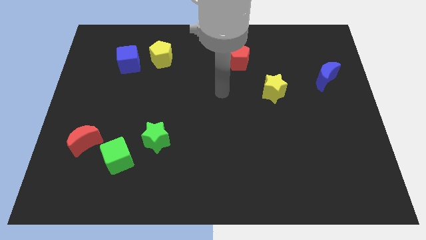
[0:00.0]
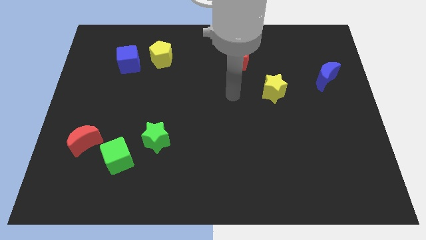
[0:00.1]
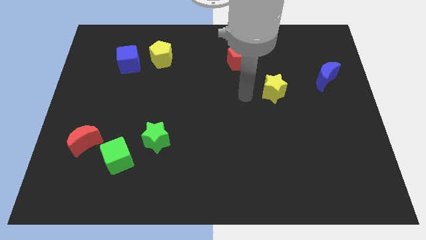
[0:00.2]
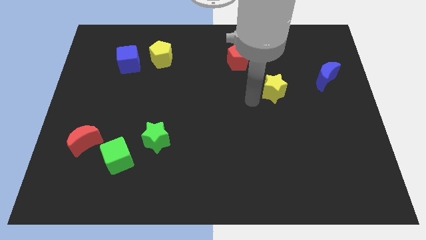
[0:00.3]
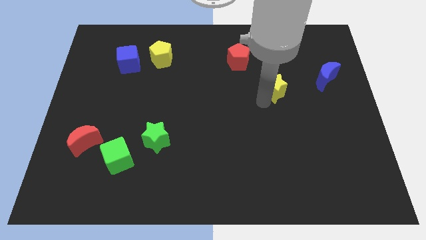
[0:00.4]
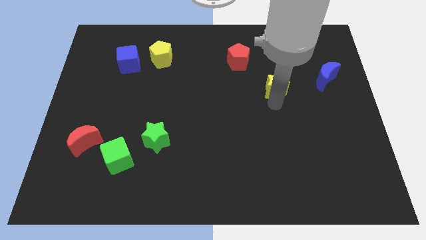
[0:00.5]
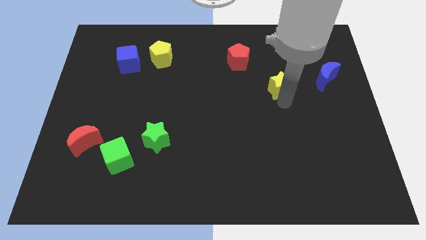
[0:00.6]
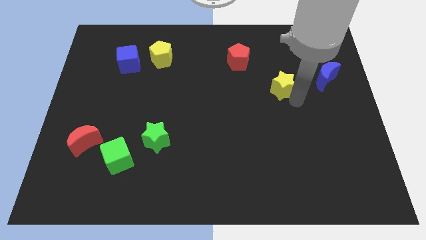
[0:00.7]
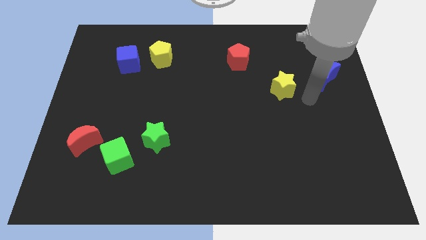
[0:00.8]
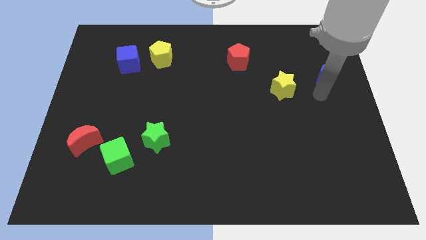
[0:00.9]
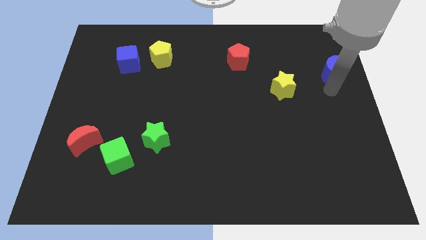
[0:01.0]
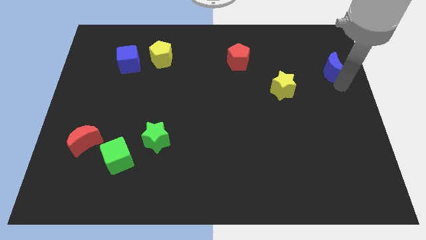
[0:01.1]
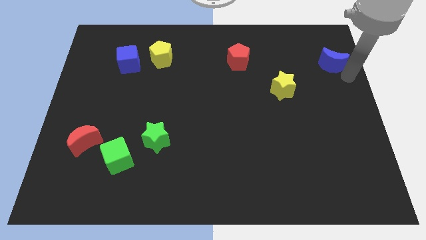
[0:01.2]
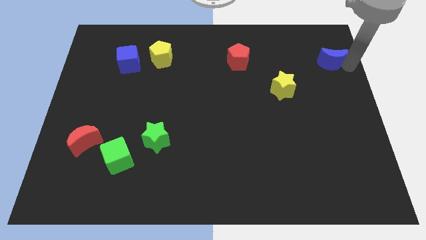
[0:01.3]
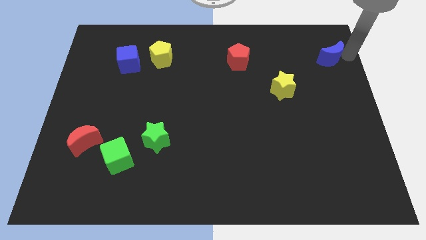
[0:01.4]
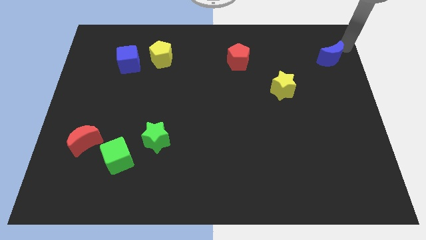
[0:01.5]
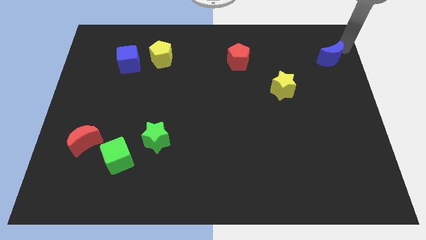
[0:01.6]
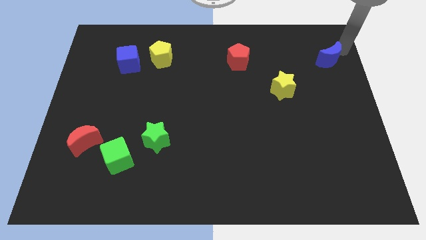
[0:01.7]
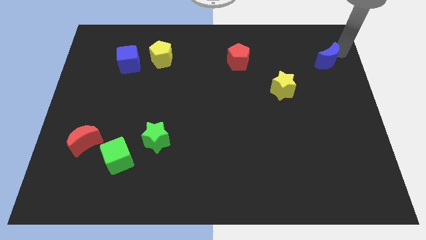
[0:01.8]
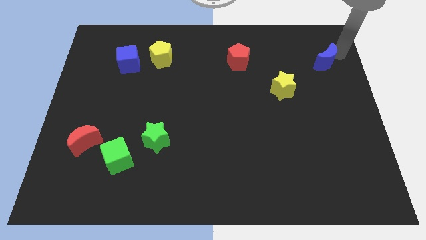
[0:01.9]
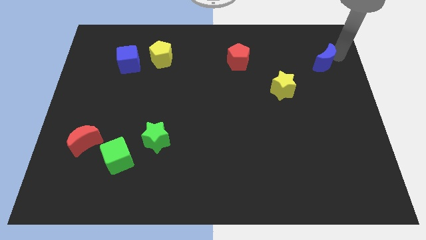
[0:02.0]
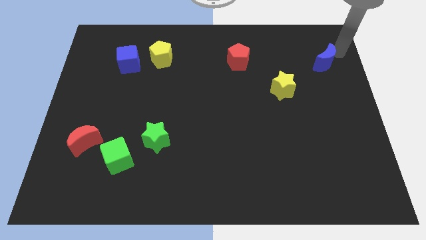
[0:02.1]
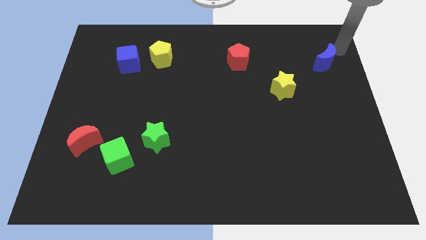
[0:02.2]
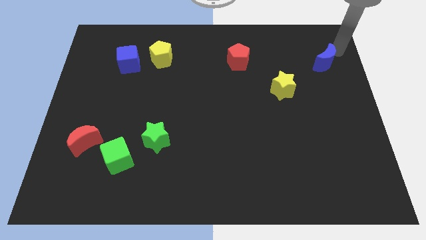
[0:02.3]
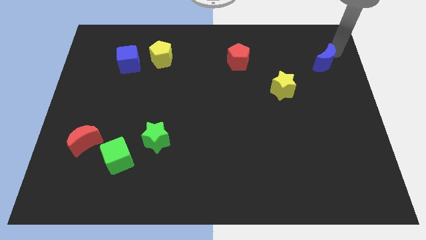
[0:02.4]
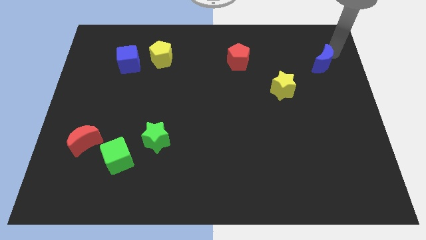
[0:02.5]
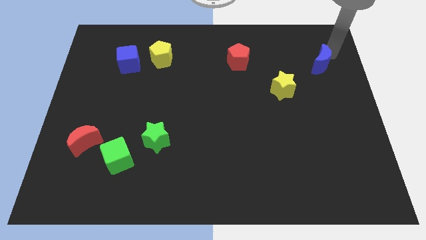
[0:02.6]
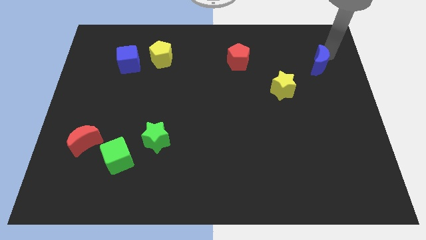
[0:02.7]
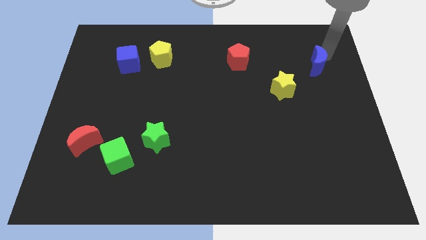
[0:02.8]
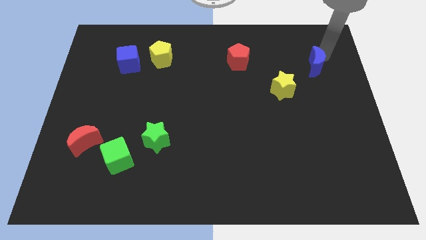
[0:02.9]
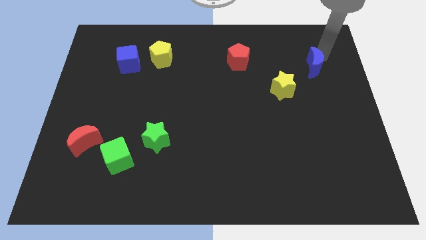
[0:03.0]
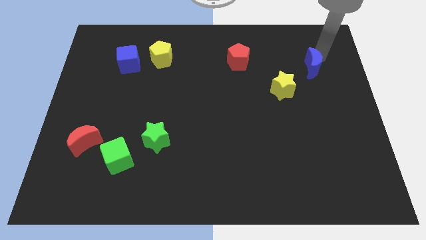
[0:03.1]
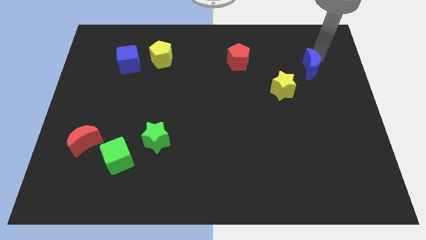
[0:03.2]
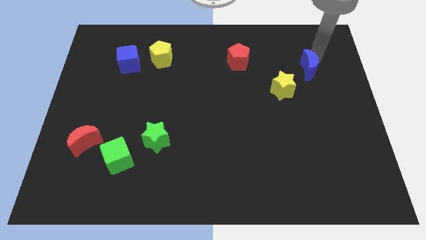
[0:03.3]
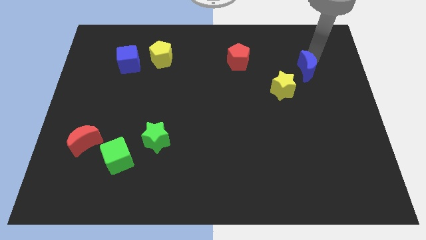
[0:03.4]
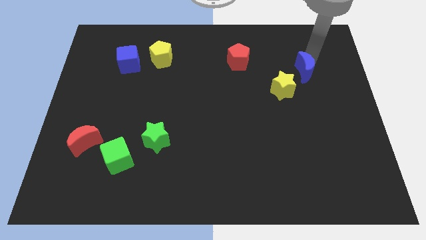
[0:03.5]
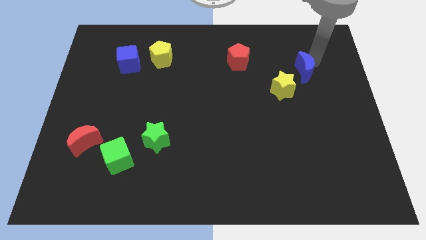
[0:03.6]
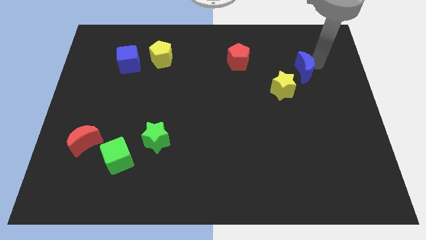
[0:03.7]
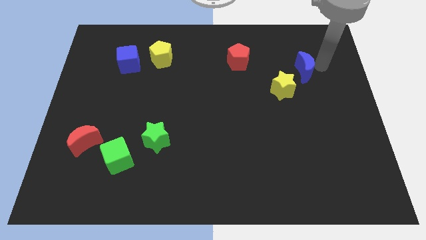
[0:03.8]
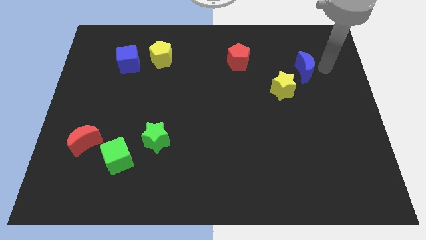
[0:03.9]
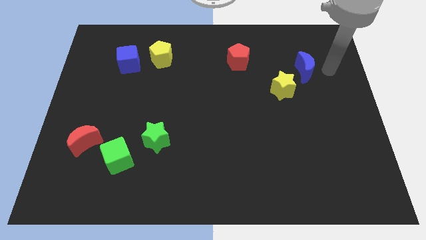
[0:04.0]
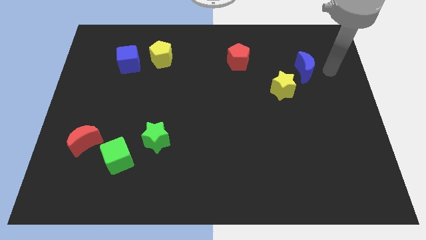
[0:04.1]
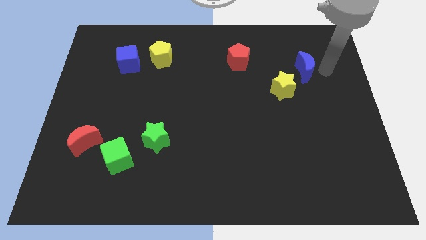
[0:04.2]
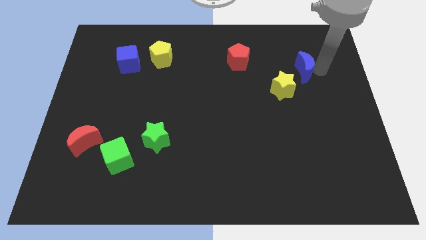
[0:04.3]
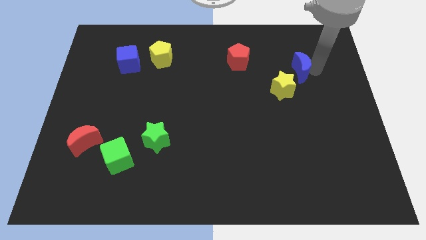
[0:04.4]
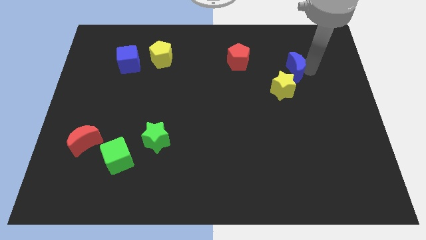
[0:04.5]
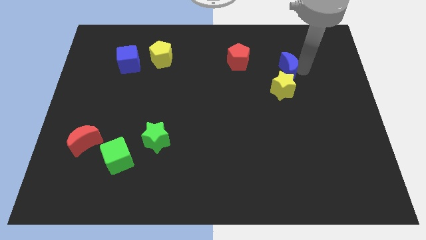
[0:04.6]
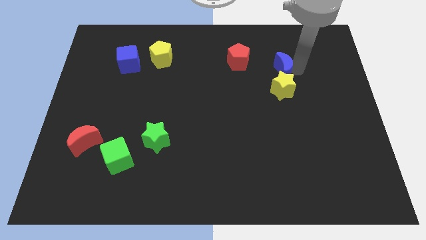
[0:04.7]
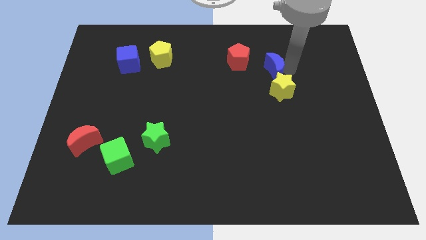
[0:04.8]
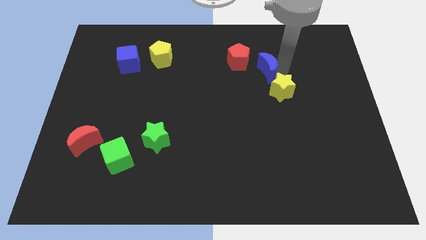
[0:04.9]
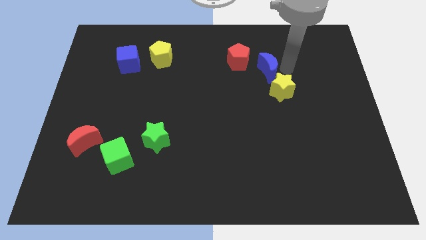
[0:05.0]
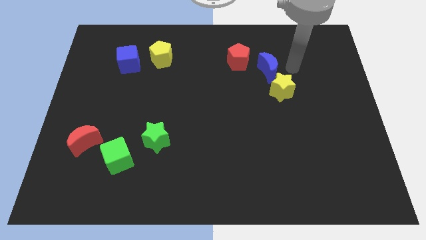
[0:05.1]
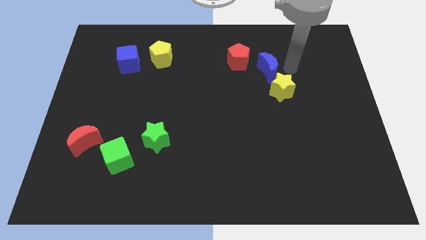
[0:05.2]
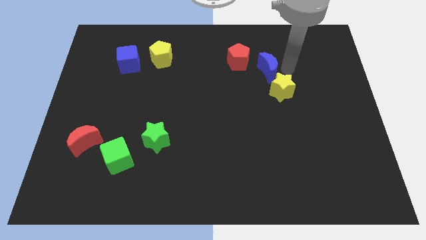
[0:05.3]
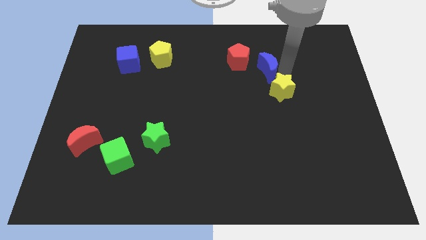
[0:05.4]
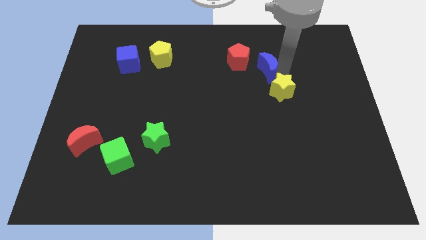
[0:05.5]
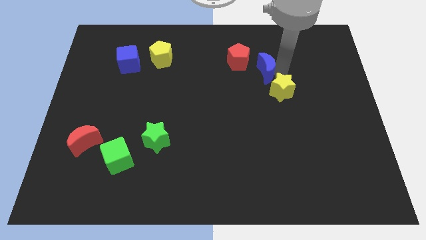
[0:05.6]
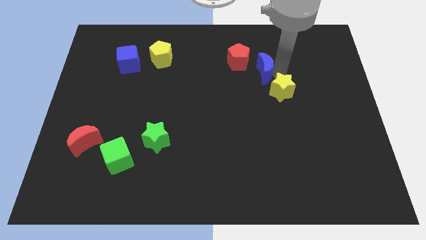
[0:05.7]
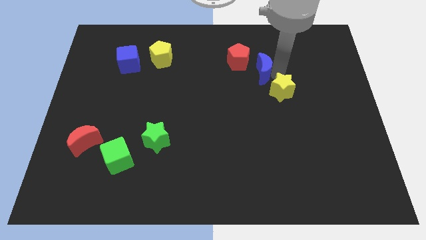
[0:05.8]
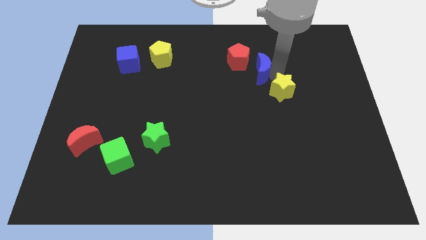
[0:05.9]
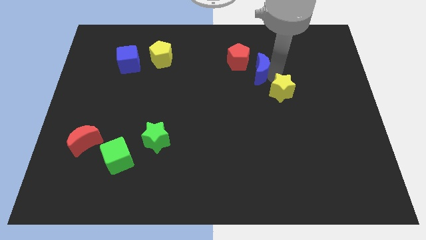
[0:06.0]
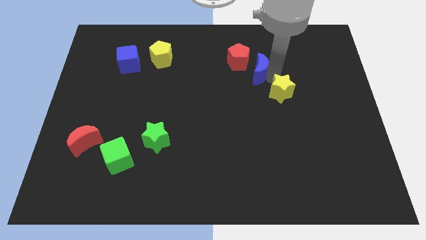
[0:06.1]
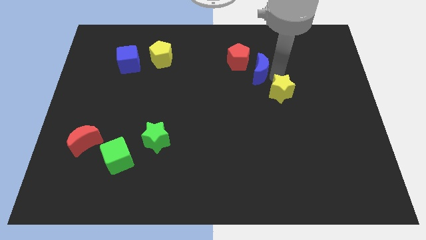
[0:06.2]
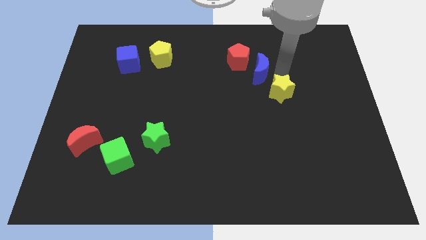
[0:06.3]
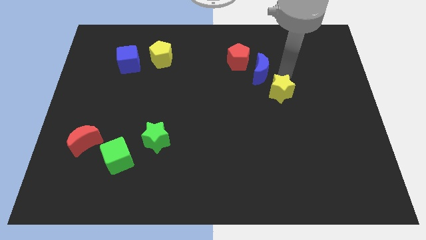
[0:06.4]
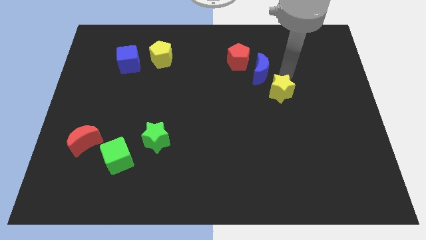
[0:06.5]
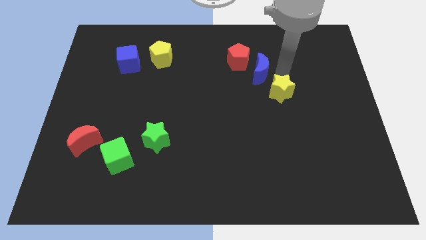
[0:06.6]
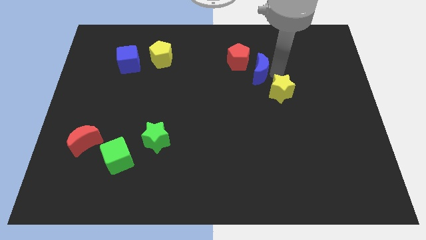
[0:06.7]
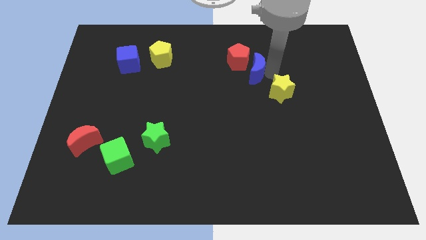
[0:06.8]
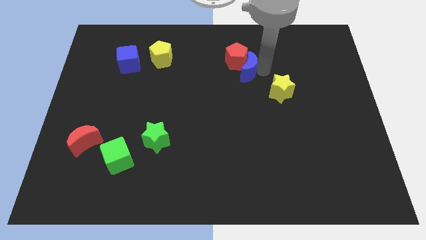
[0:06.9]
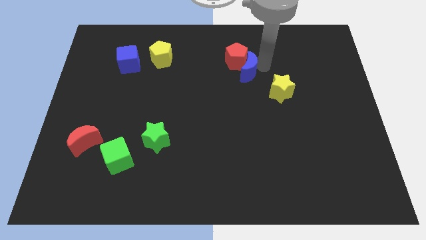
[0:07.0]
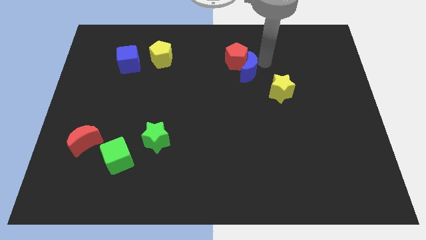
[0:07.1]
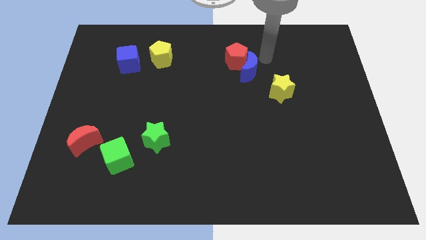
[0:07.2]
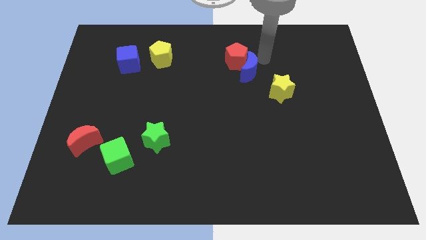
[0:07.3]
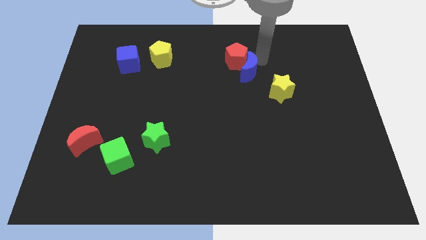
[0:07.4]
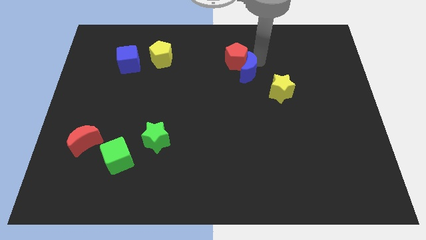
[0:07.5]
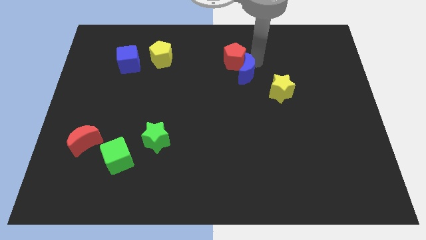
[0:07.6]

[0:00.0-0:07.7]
push the blue moon to the middle

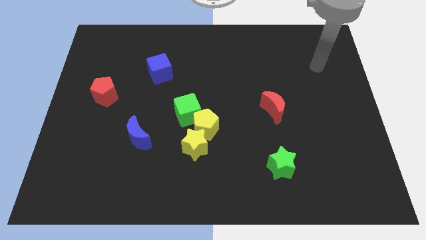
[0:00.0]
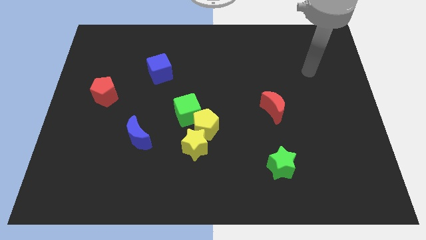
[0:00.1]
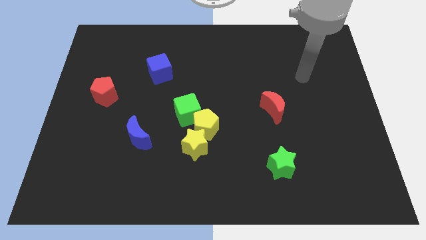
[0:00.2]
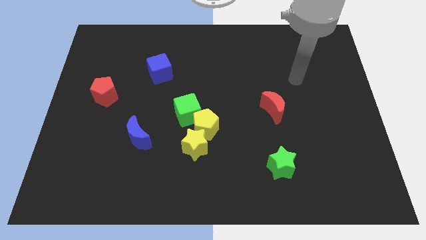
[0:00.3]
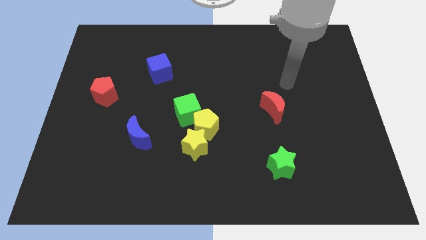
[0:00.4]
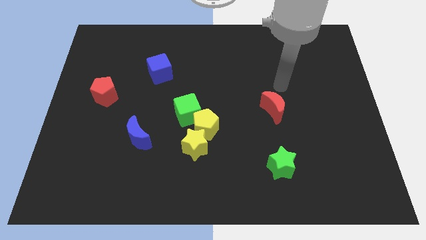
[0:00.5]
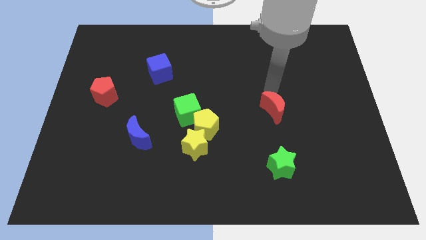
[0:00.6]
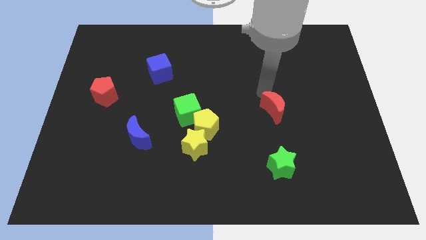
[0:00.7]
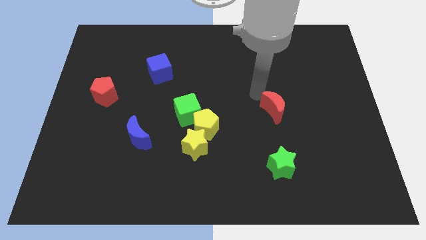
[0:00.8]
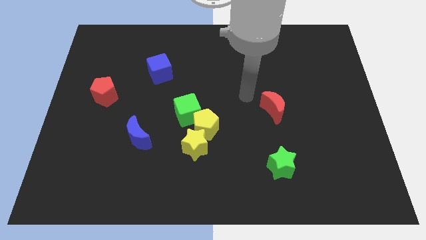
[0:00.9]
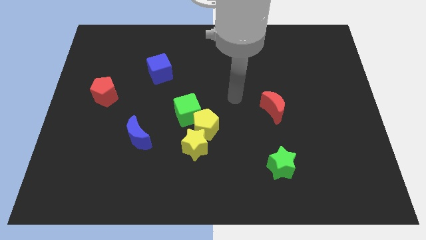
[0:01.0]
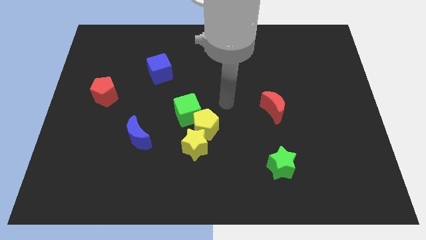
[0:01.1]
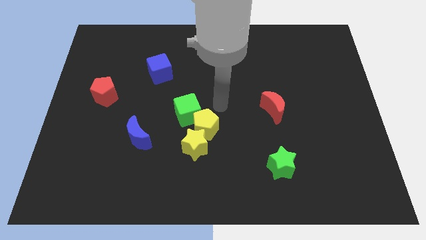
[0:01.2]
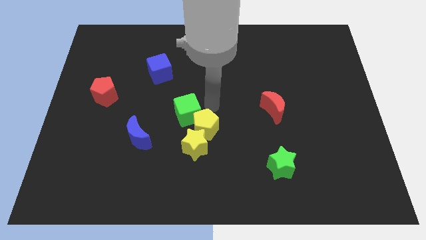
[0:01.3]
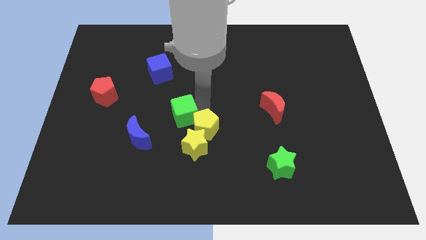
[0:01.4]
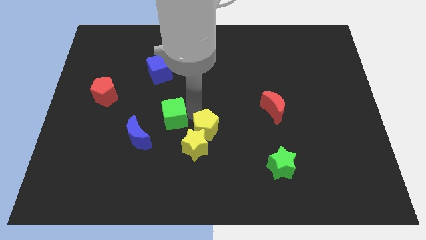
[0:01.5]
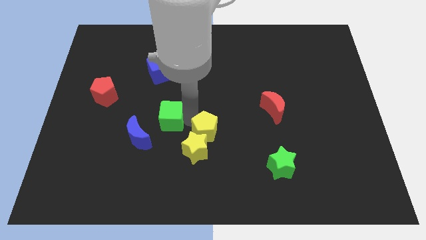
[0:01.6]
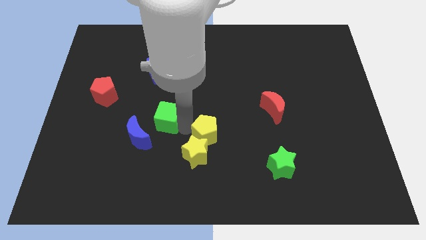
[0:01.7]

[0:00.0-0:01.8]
move the yellow star to the bottom side
